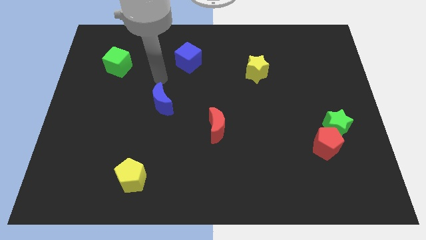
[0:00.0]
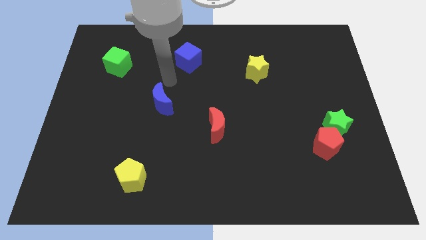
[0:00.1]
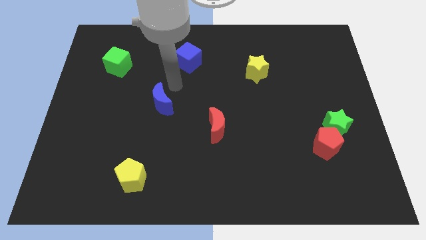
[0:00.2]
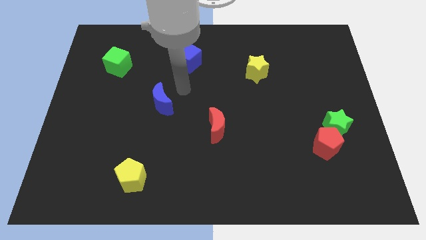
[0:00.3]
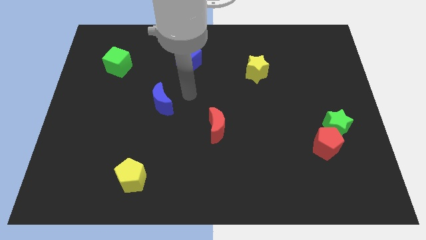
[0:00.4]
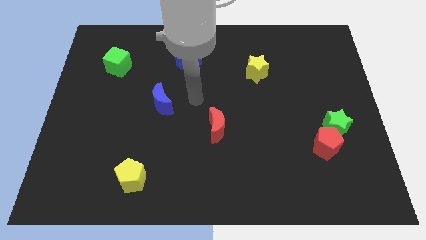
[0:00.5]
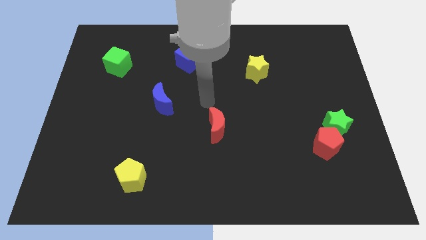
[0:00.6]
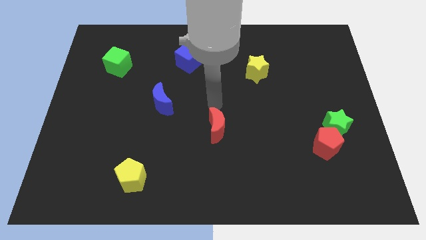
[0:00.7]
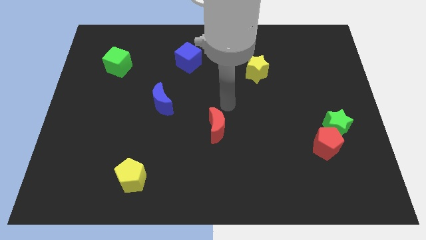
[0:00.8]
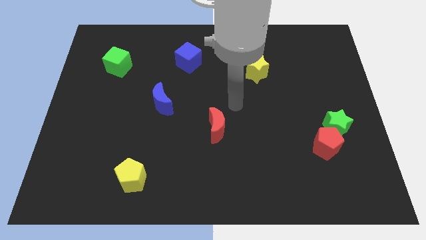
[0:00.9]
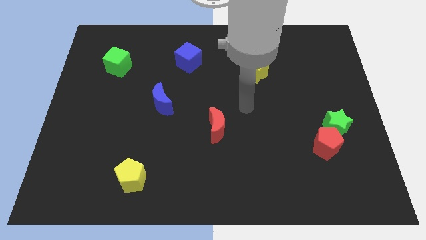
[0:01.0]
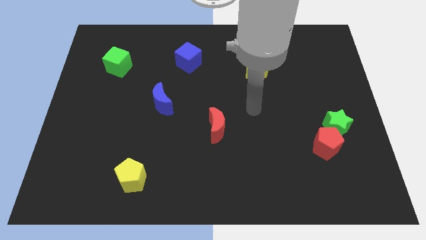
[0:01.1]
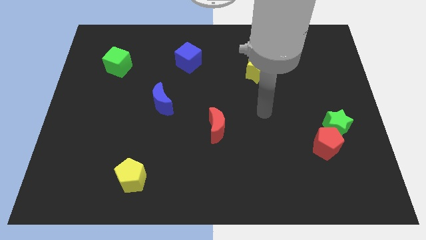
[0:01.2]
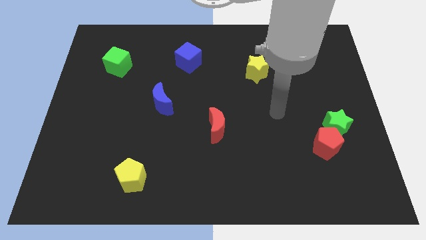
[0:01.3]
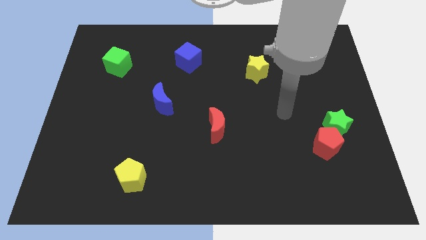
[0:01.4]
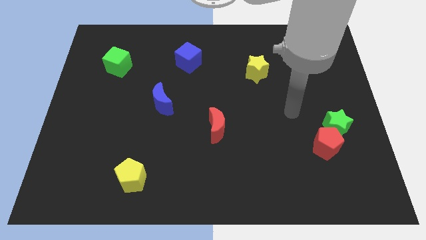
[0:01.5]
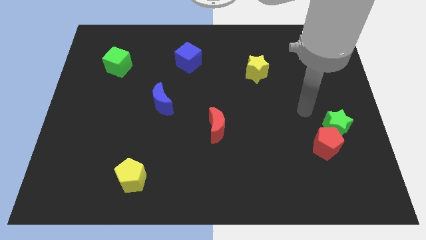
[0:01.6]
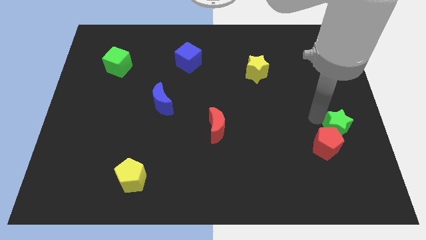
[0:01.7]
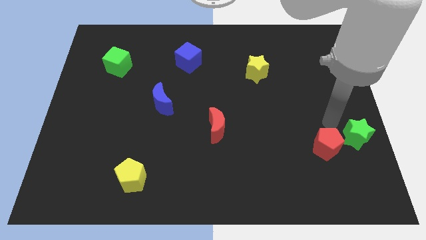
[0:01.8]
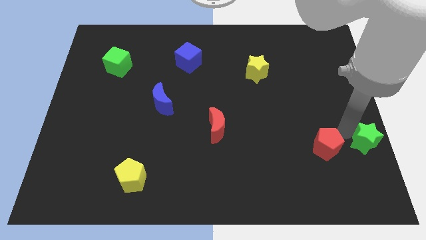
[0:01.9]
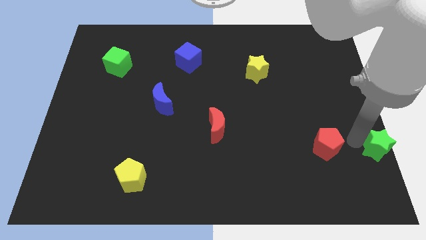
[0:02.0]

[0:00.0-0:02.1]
pull the red pentagon apart from the green star

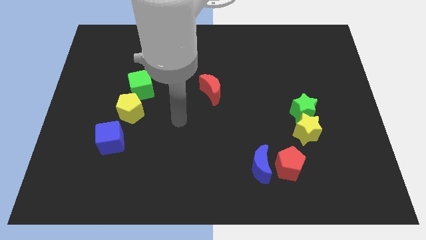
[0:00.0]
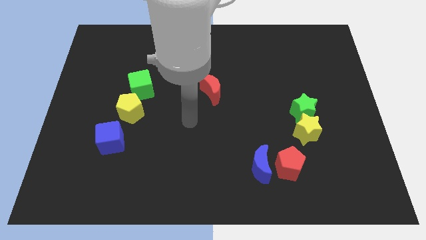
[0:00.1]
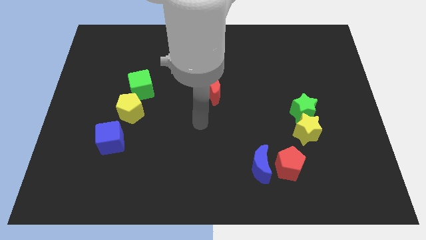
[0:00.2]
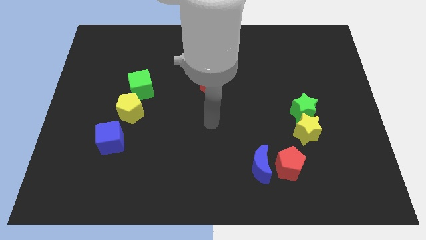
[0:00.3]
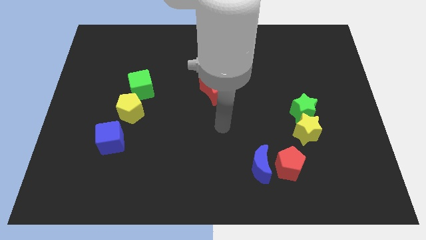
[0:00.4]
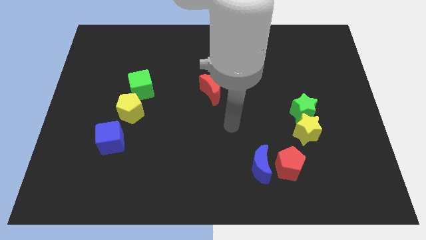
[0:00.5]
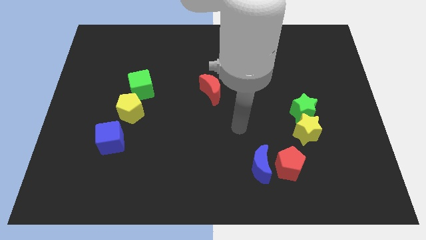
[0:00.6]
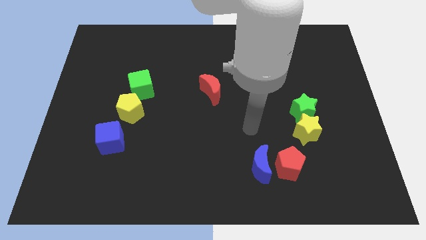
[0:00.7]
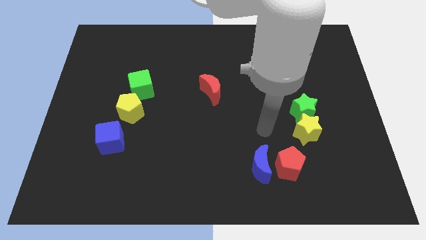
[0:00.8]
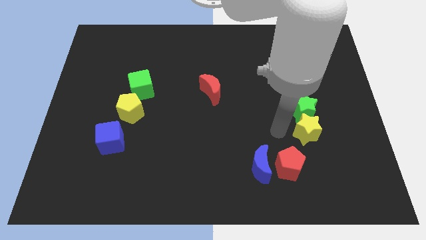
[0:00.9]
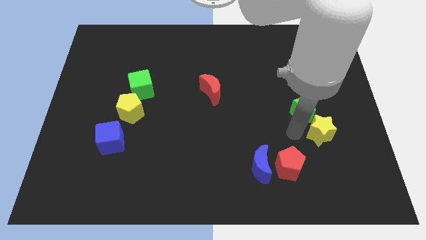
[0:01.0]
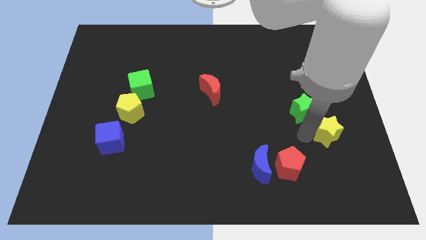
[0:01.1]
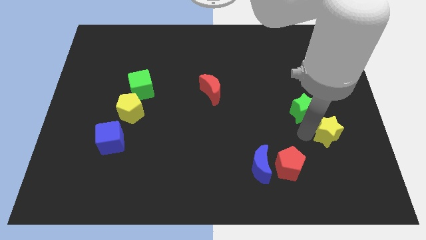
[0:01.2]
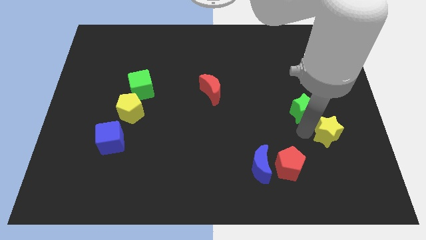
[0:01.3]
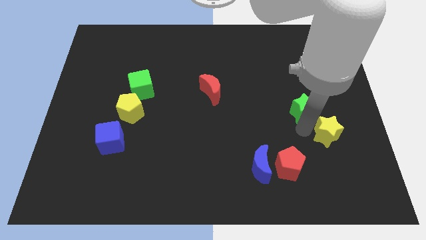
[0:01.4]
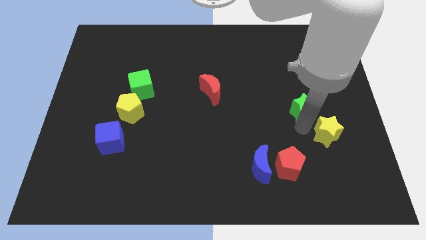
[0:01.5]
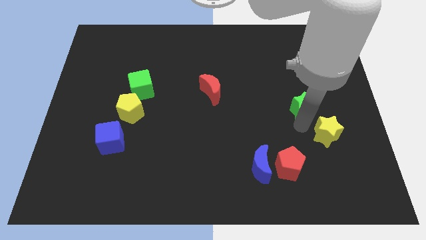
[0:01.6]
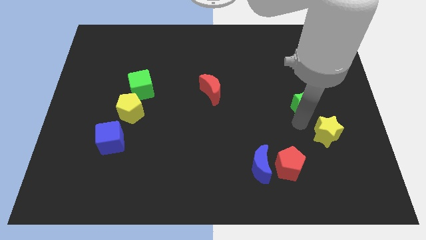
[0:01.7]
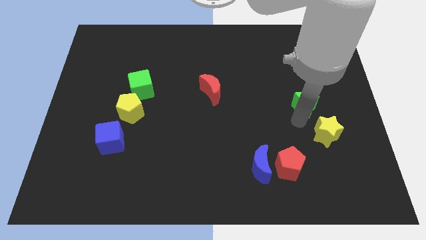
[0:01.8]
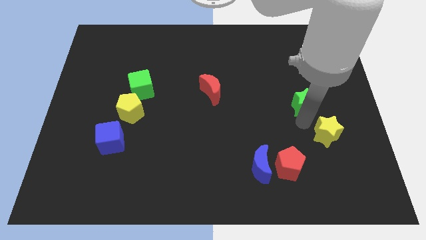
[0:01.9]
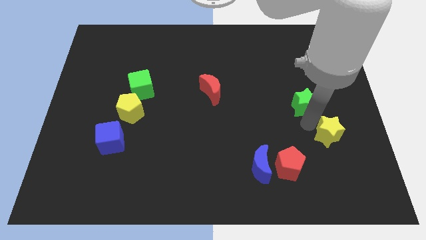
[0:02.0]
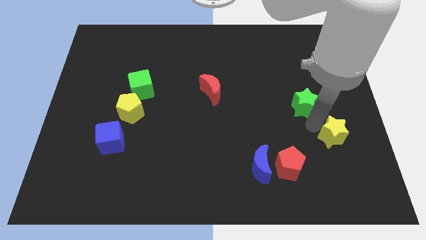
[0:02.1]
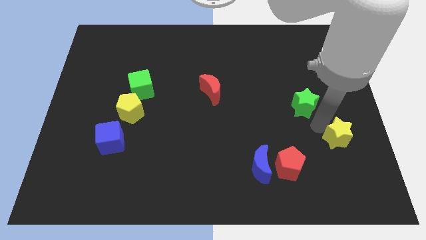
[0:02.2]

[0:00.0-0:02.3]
move the green star away from the yellow star

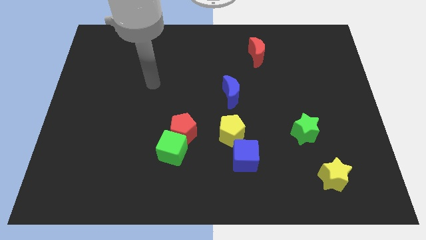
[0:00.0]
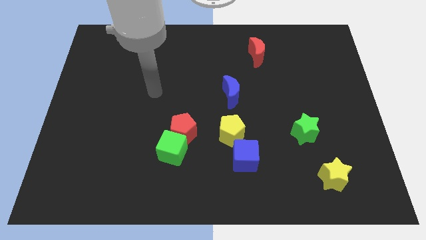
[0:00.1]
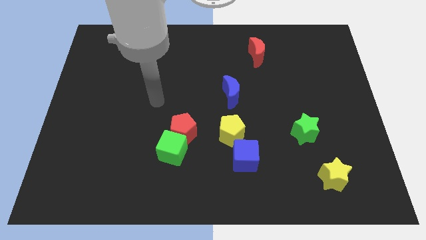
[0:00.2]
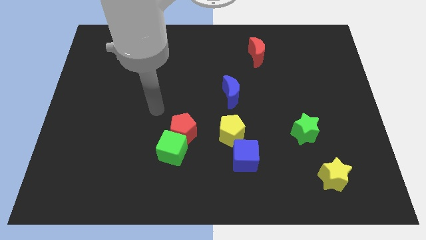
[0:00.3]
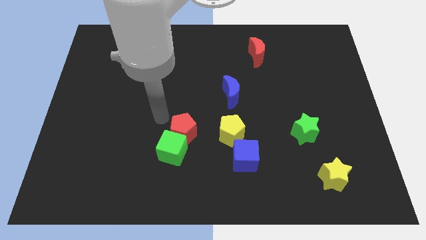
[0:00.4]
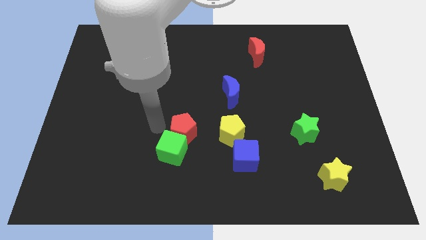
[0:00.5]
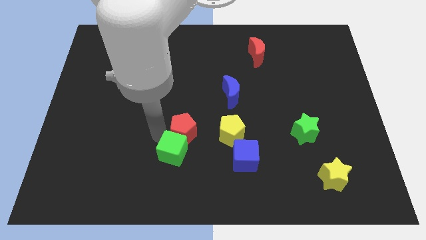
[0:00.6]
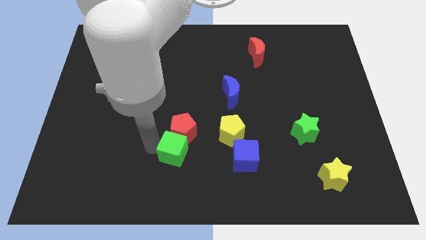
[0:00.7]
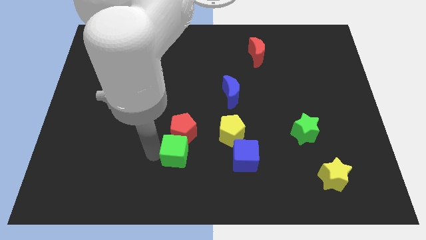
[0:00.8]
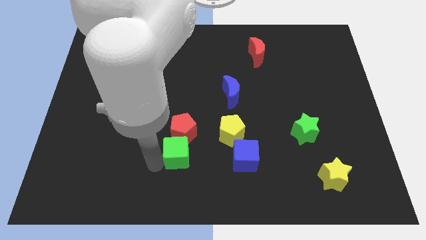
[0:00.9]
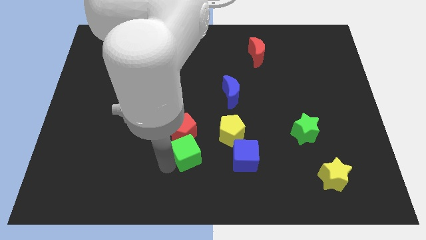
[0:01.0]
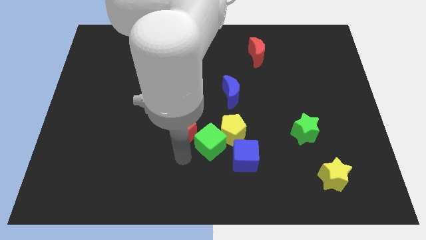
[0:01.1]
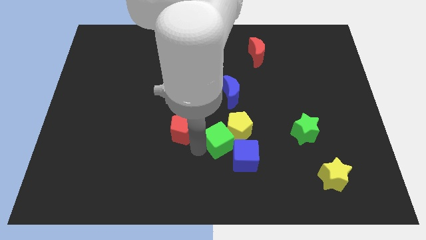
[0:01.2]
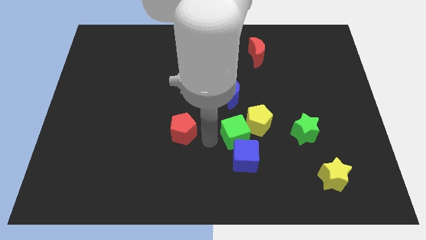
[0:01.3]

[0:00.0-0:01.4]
pull the red pentagon apart from the green cube

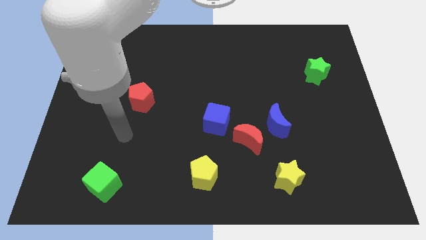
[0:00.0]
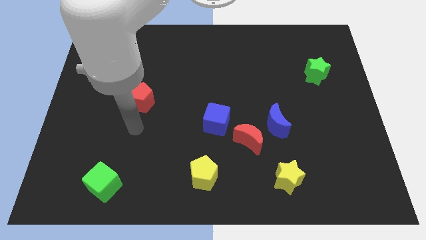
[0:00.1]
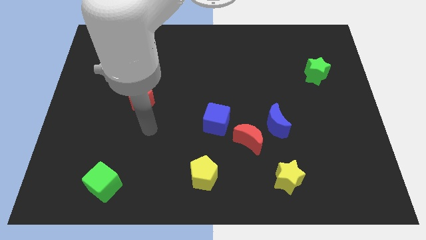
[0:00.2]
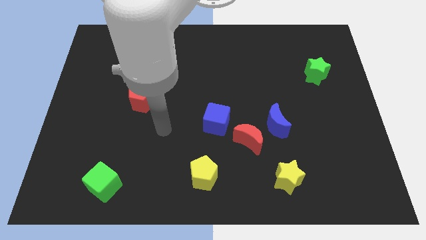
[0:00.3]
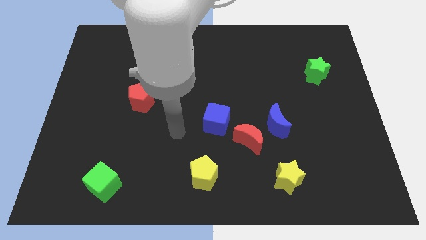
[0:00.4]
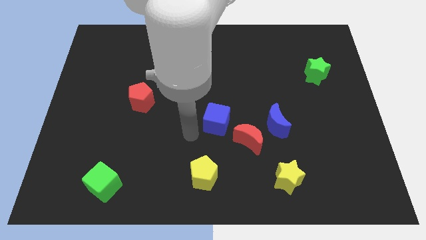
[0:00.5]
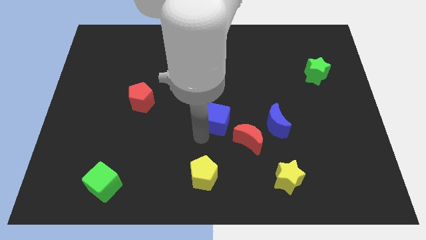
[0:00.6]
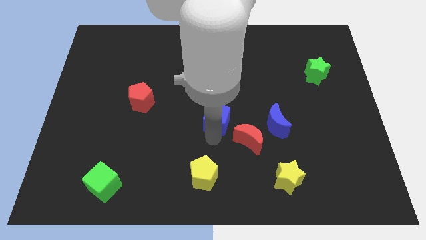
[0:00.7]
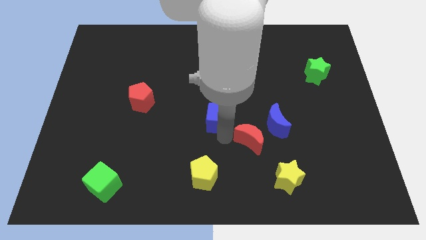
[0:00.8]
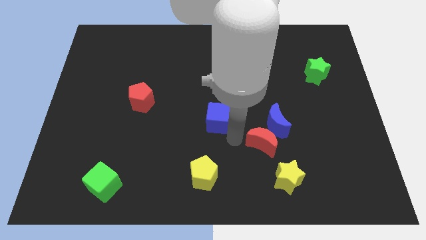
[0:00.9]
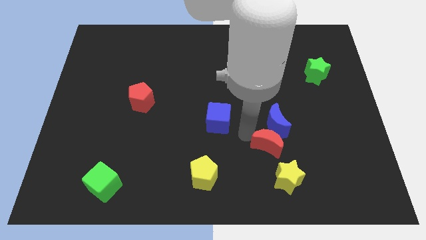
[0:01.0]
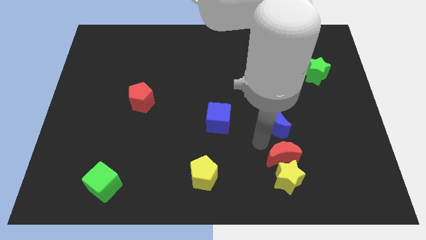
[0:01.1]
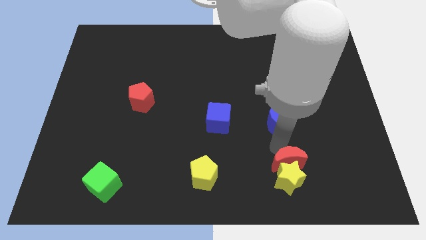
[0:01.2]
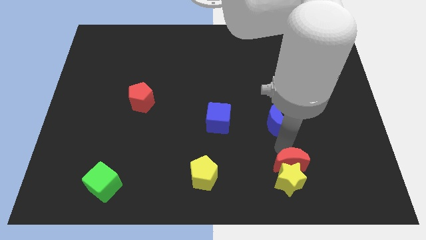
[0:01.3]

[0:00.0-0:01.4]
move the blue moon away from the red moon

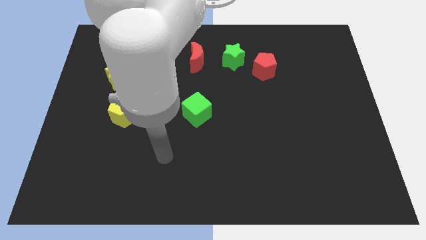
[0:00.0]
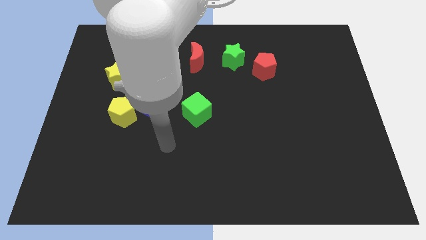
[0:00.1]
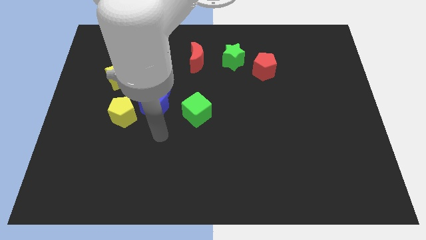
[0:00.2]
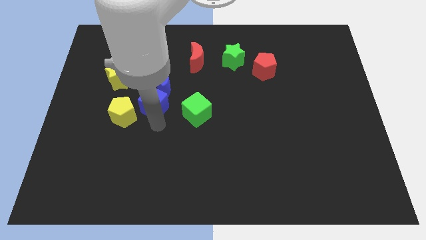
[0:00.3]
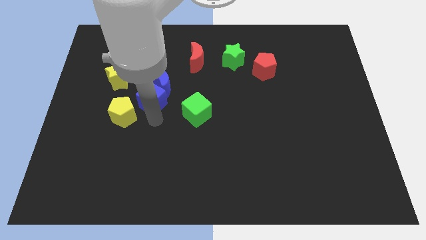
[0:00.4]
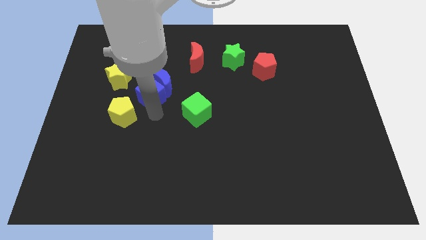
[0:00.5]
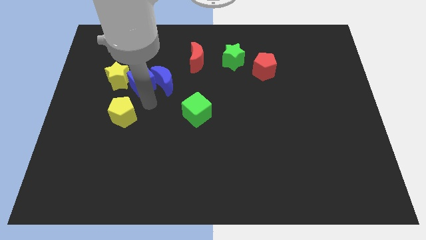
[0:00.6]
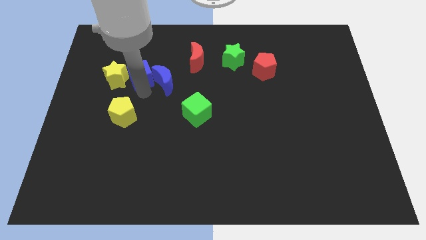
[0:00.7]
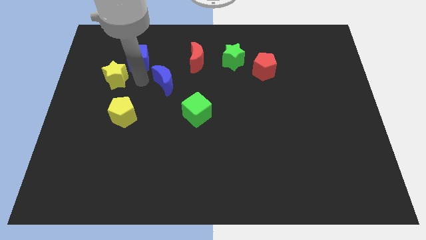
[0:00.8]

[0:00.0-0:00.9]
separate the blue moon from the blue cube

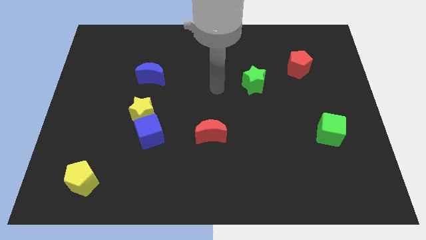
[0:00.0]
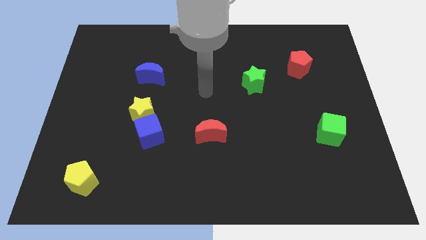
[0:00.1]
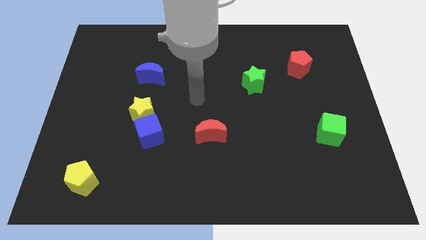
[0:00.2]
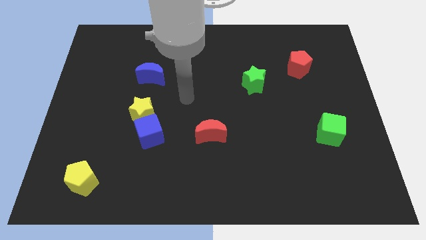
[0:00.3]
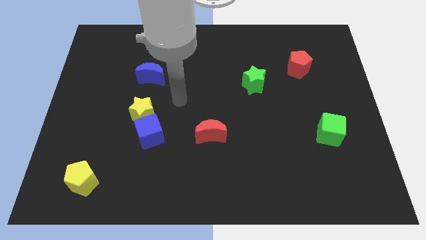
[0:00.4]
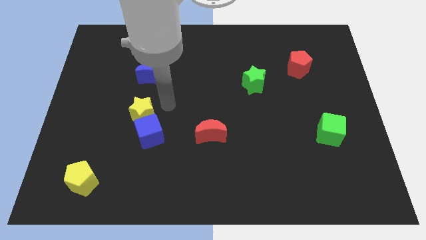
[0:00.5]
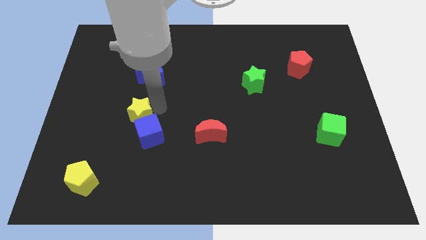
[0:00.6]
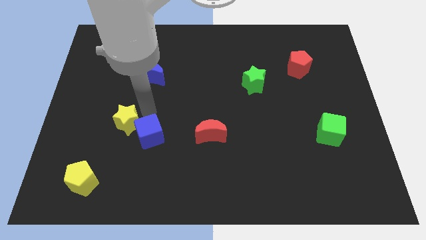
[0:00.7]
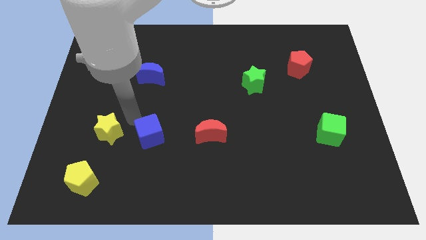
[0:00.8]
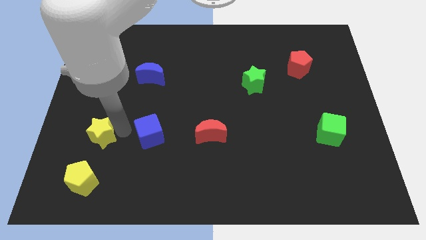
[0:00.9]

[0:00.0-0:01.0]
pull the blue cube apart from the yellow star

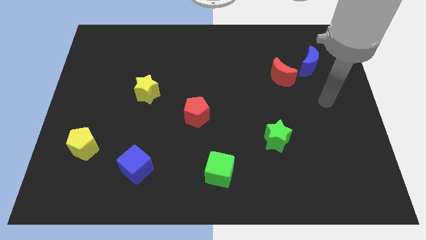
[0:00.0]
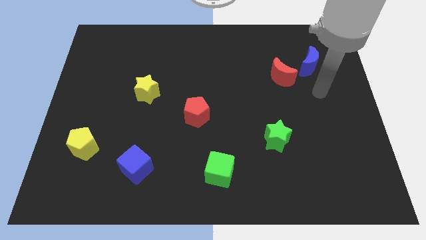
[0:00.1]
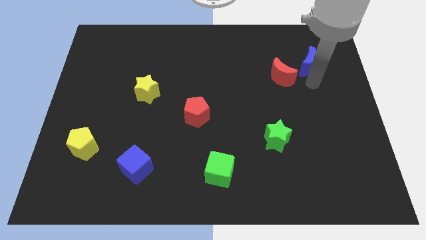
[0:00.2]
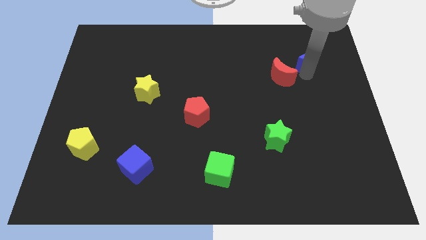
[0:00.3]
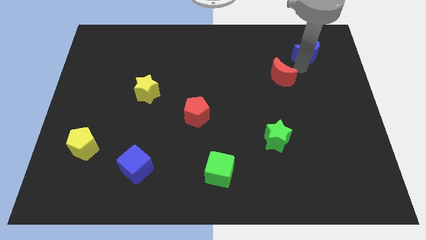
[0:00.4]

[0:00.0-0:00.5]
move the red moon away from the blue moon
